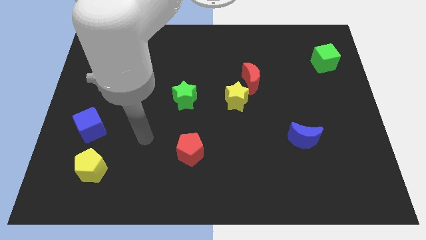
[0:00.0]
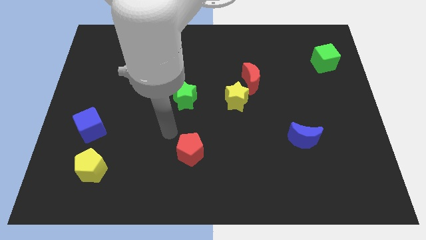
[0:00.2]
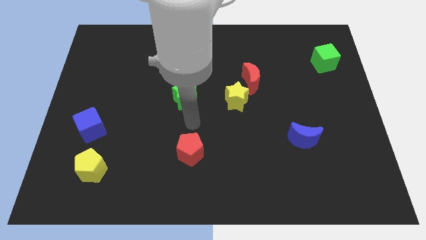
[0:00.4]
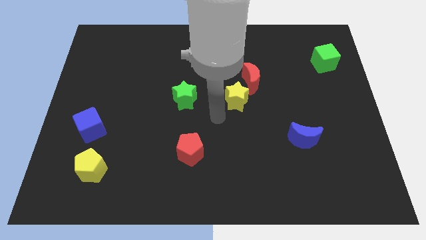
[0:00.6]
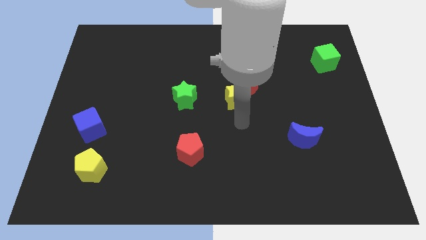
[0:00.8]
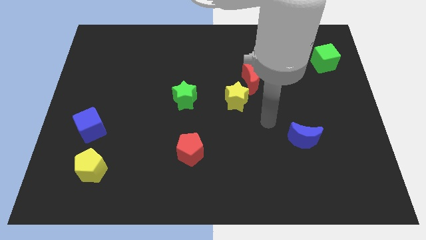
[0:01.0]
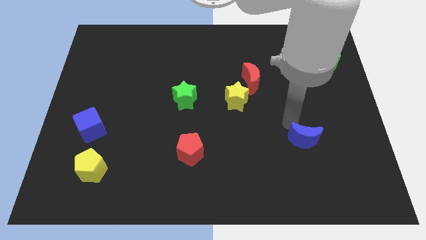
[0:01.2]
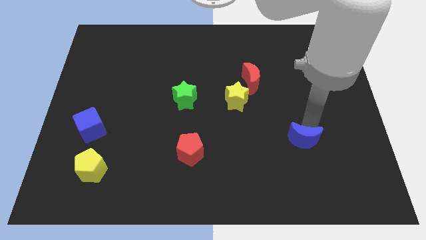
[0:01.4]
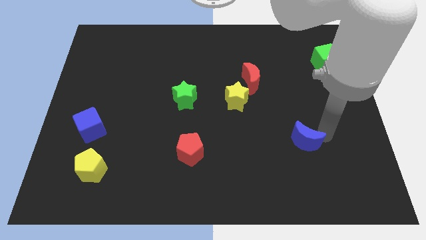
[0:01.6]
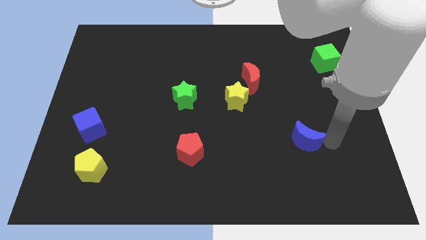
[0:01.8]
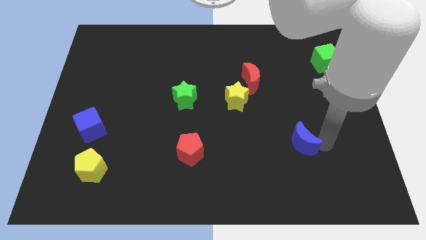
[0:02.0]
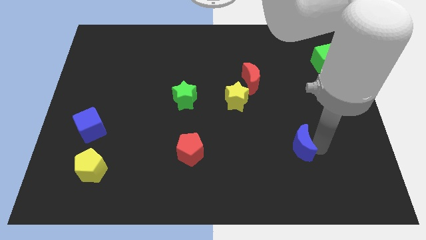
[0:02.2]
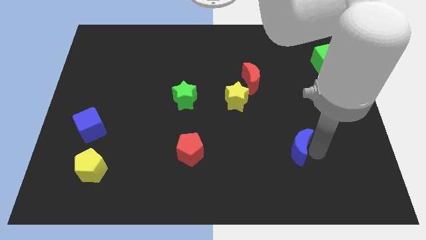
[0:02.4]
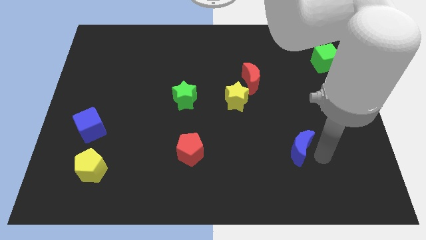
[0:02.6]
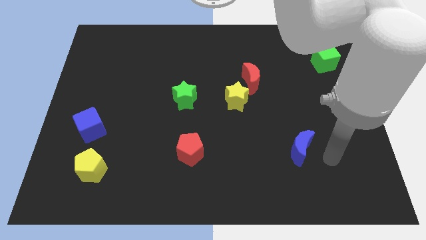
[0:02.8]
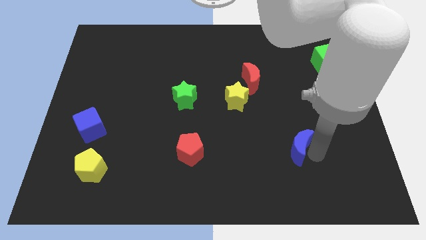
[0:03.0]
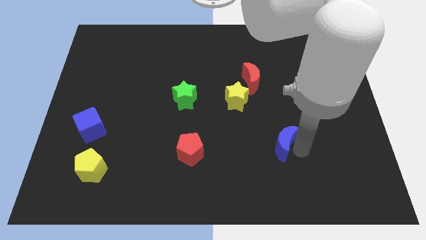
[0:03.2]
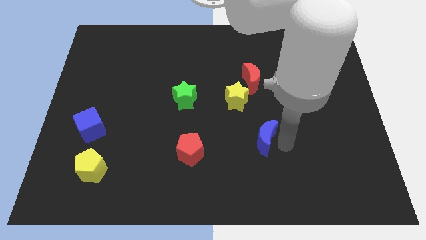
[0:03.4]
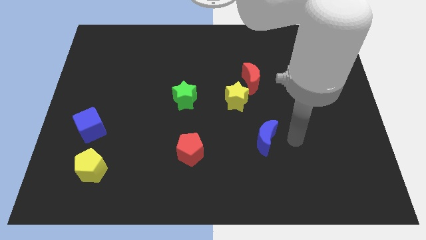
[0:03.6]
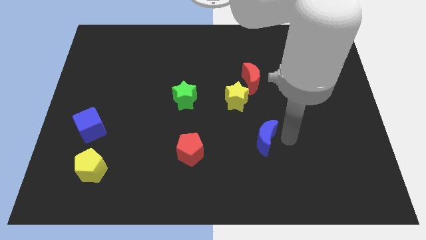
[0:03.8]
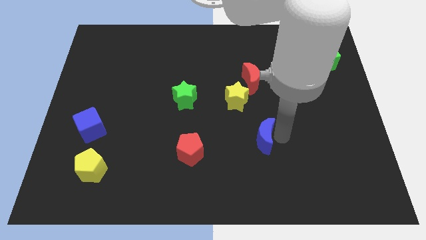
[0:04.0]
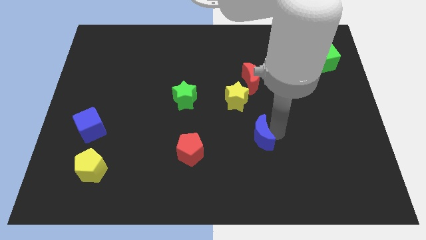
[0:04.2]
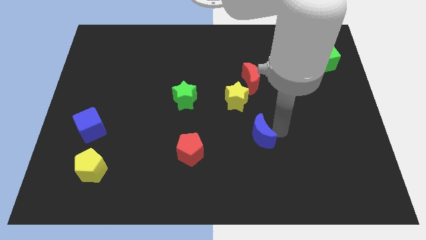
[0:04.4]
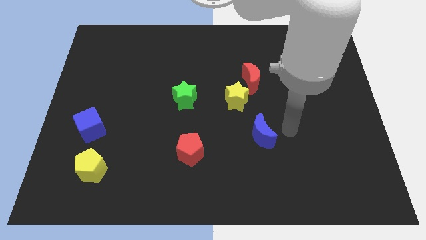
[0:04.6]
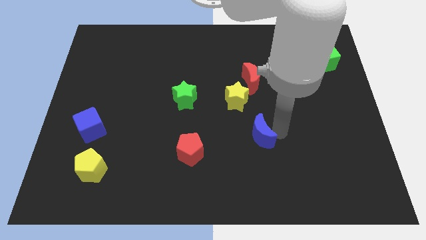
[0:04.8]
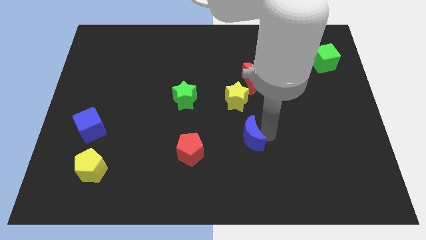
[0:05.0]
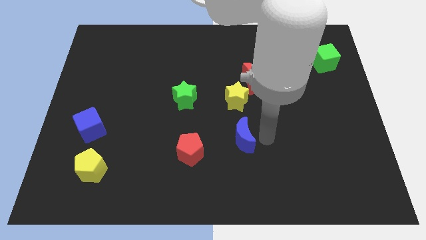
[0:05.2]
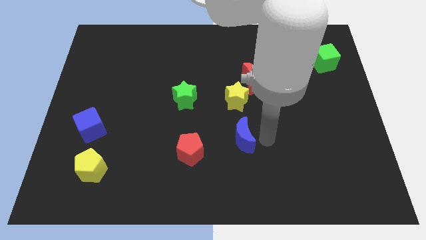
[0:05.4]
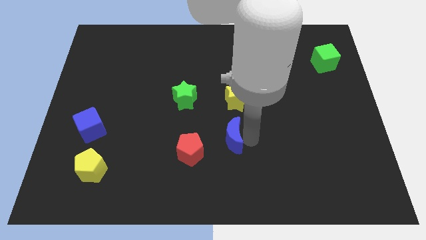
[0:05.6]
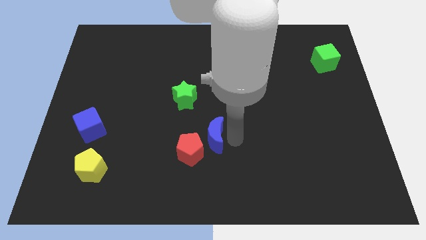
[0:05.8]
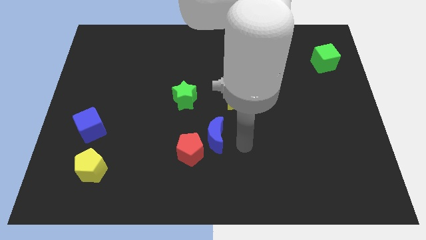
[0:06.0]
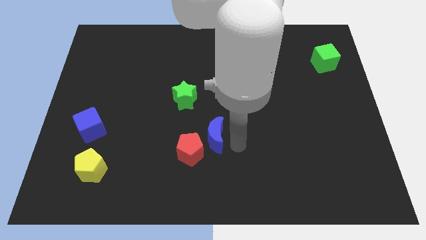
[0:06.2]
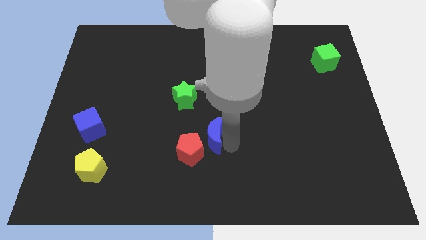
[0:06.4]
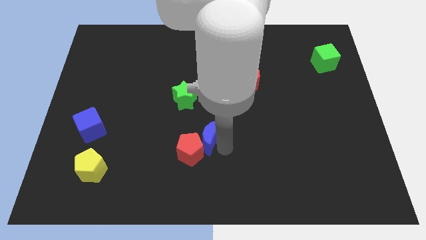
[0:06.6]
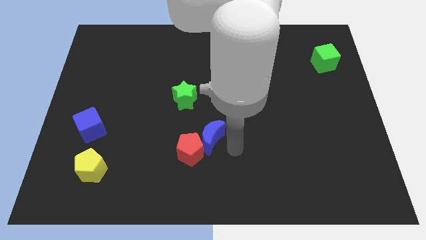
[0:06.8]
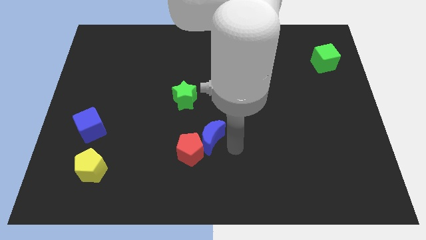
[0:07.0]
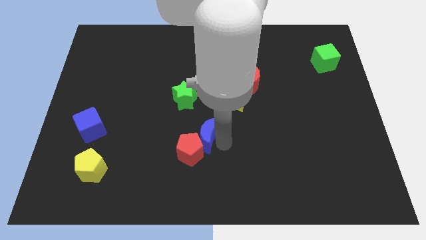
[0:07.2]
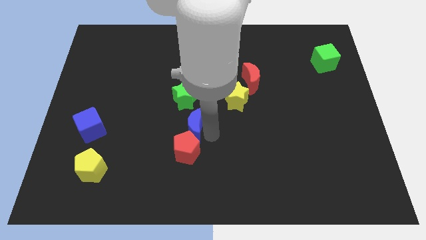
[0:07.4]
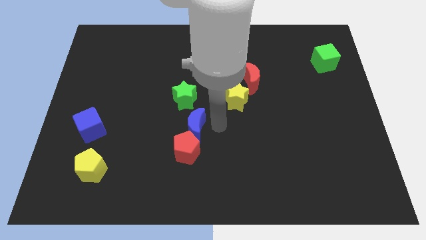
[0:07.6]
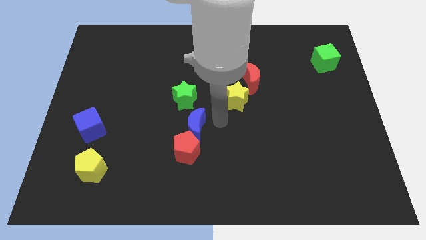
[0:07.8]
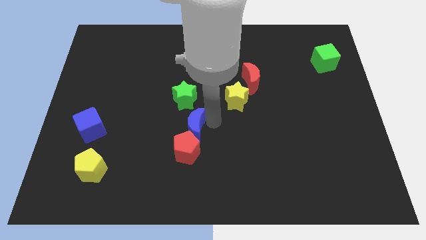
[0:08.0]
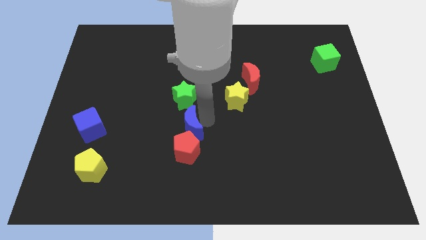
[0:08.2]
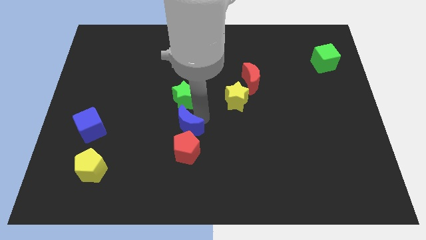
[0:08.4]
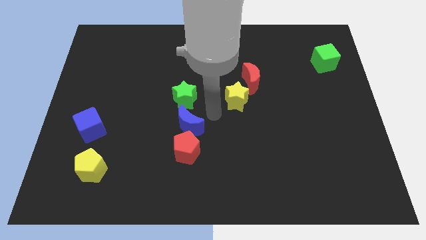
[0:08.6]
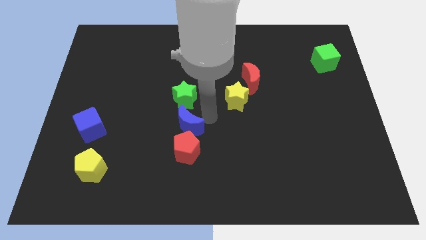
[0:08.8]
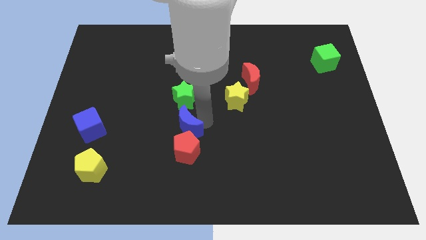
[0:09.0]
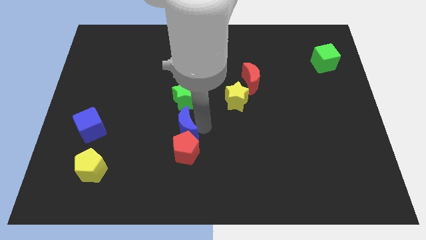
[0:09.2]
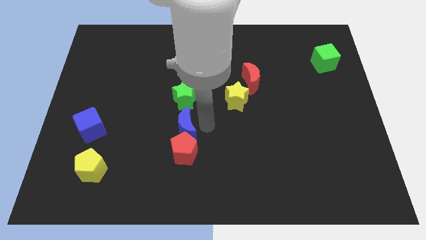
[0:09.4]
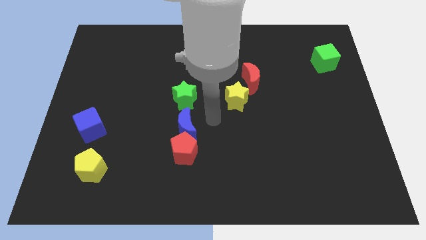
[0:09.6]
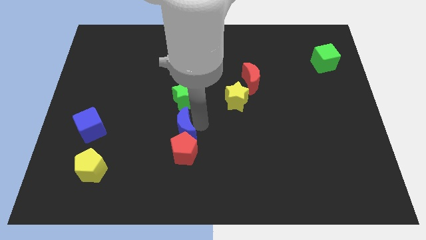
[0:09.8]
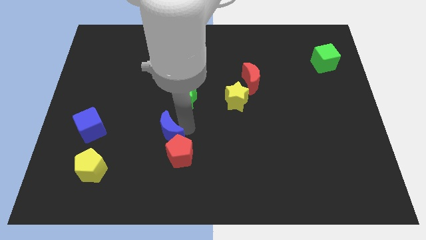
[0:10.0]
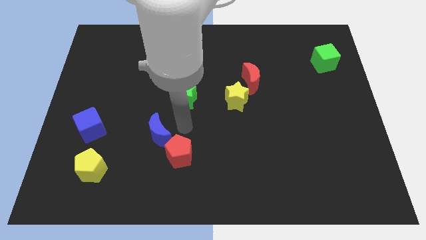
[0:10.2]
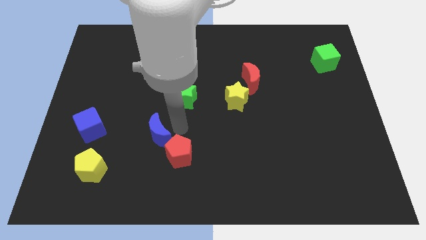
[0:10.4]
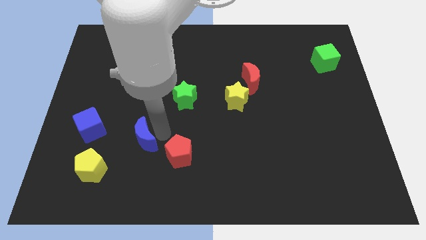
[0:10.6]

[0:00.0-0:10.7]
put the blue moon to the top right of the yellow pentagon

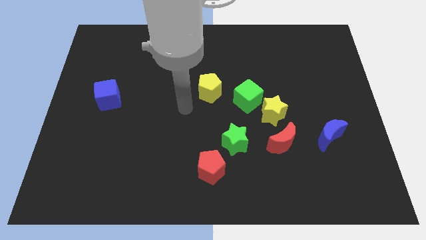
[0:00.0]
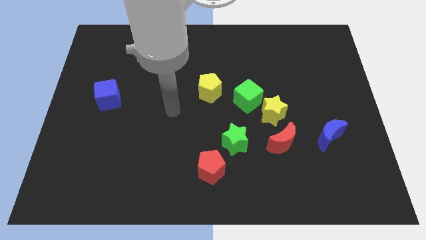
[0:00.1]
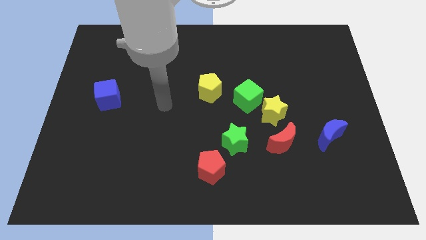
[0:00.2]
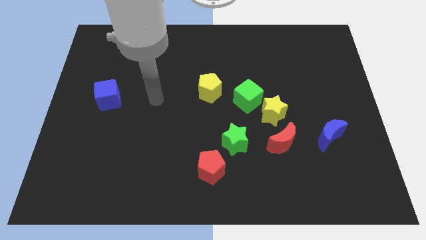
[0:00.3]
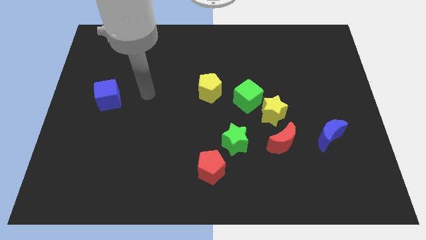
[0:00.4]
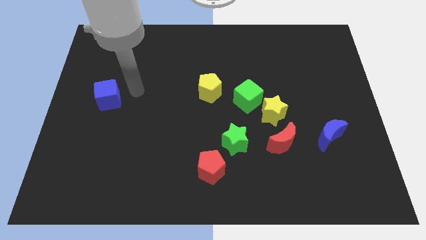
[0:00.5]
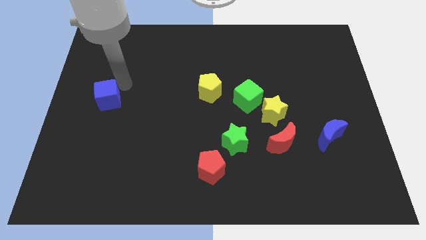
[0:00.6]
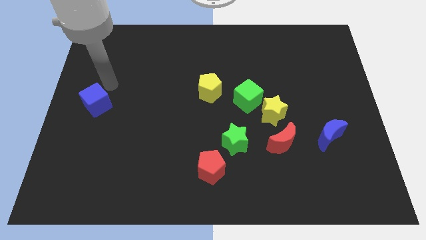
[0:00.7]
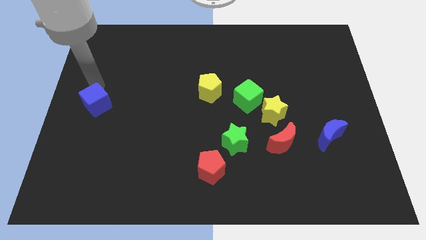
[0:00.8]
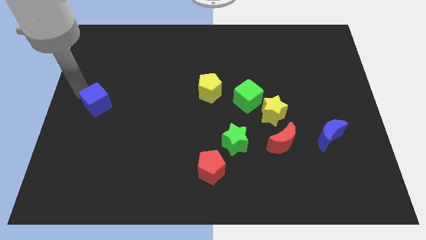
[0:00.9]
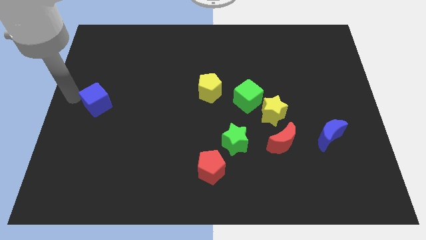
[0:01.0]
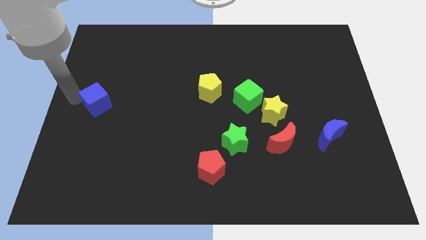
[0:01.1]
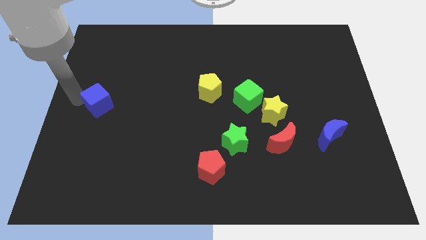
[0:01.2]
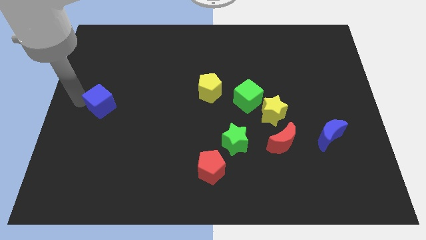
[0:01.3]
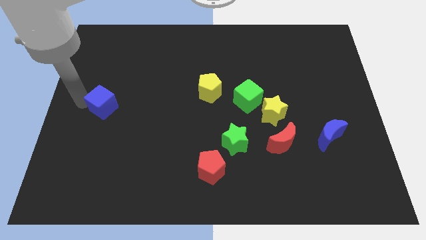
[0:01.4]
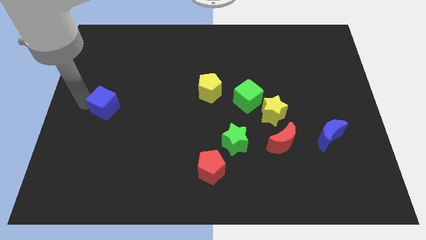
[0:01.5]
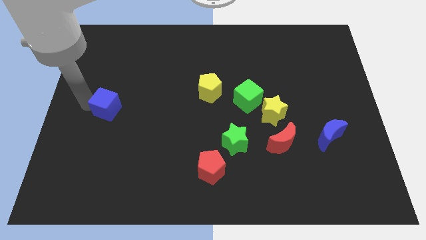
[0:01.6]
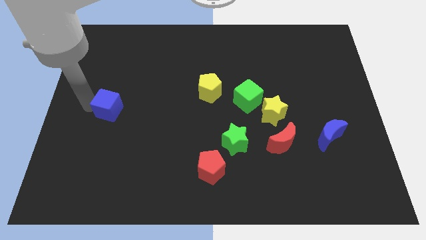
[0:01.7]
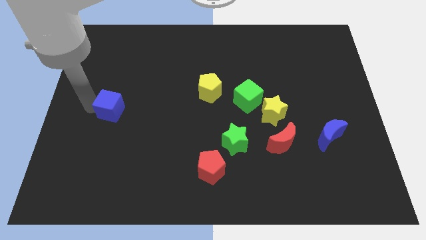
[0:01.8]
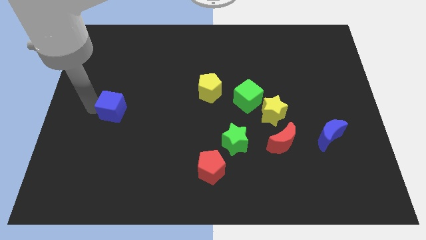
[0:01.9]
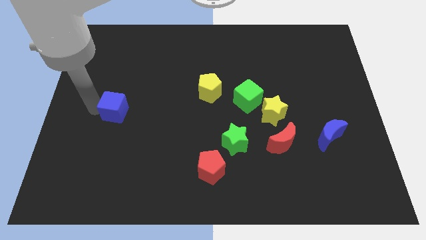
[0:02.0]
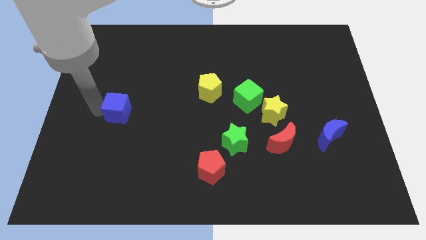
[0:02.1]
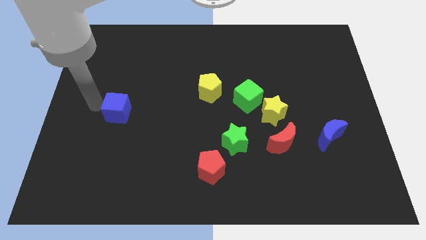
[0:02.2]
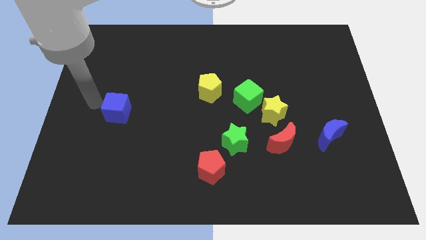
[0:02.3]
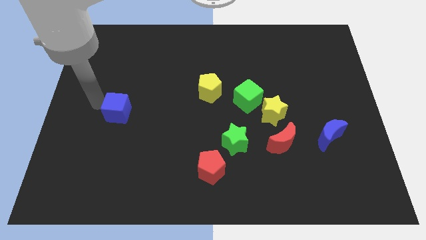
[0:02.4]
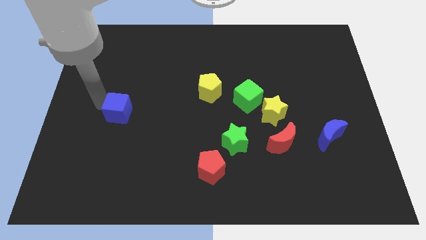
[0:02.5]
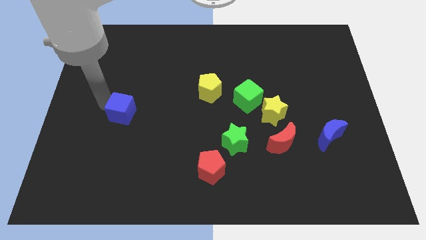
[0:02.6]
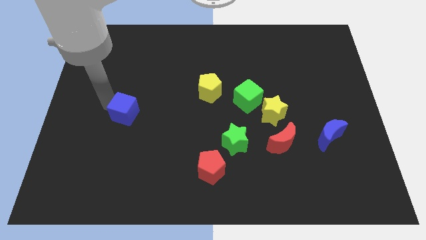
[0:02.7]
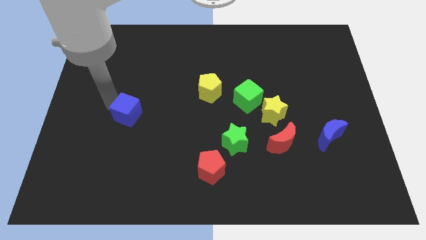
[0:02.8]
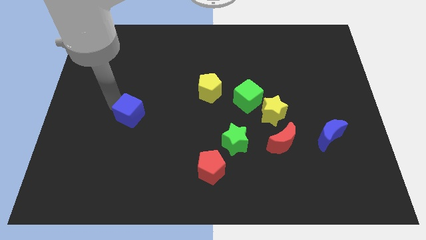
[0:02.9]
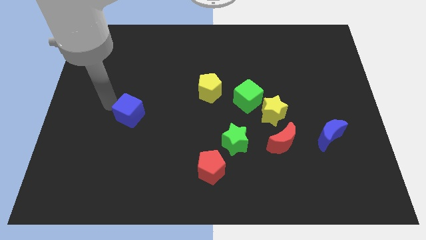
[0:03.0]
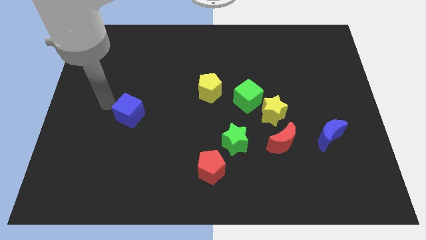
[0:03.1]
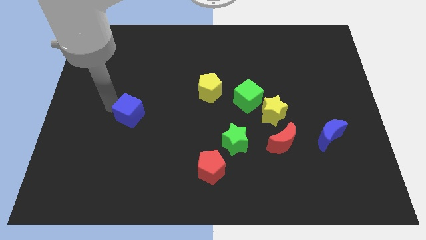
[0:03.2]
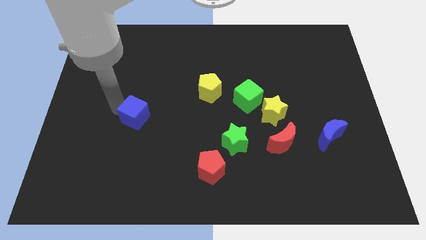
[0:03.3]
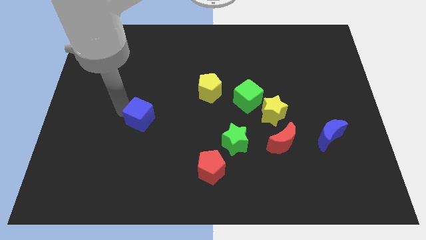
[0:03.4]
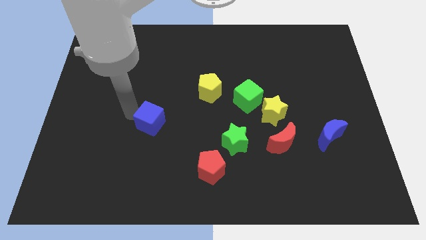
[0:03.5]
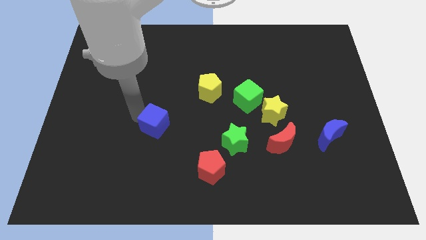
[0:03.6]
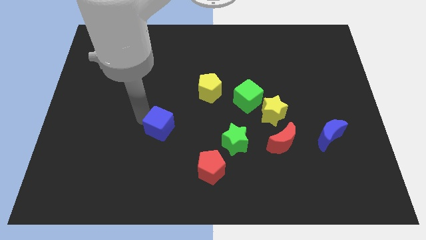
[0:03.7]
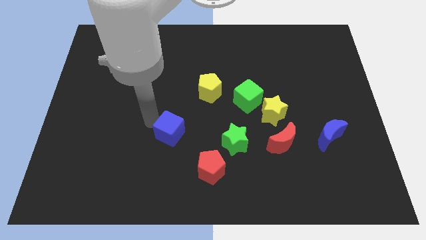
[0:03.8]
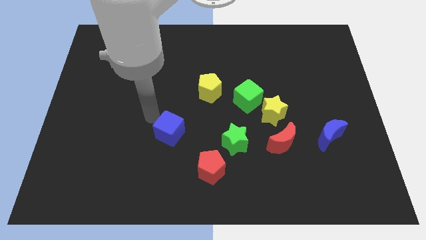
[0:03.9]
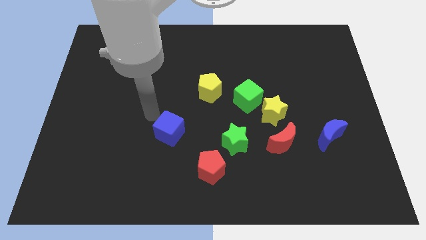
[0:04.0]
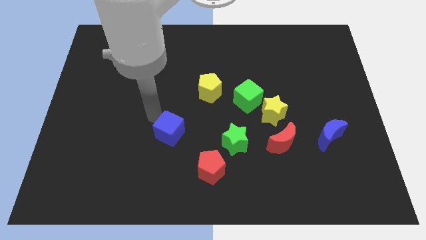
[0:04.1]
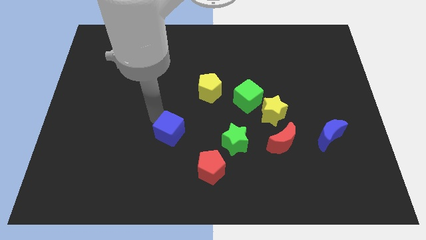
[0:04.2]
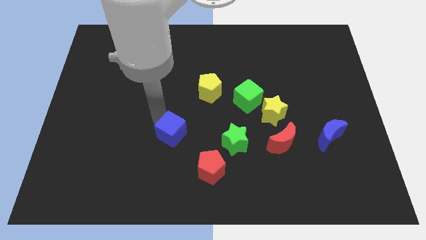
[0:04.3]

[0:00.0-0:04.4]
move the blue cube to the top left side of the red pentagon
